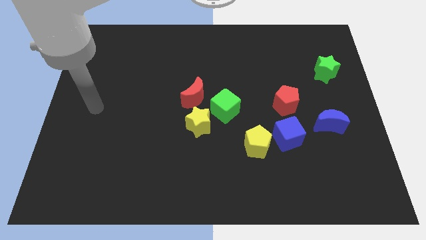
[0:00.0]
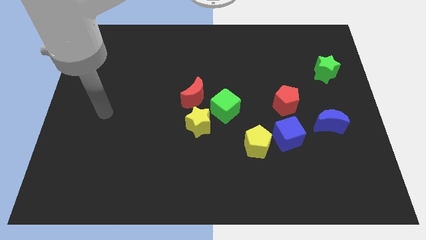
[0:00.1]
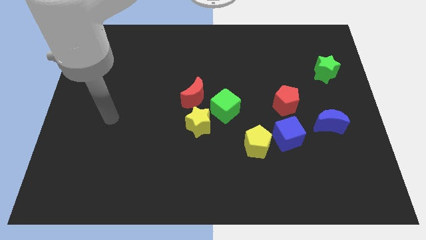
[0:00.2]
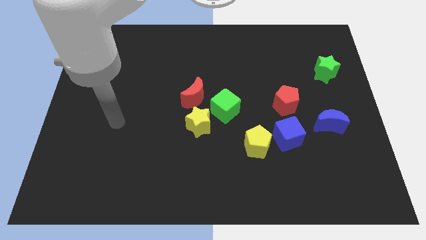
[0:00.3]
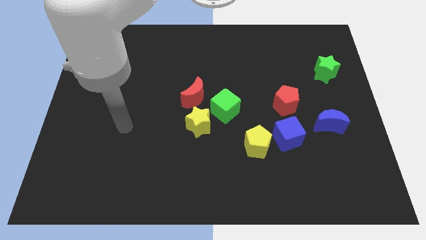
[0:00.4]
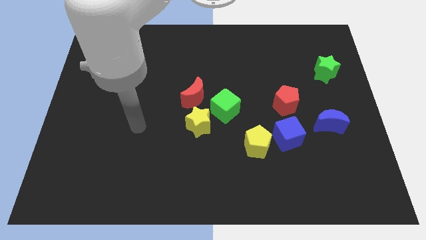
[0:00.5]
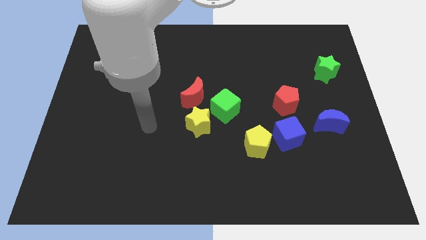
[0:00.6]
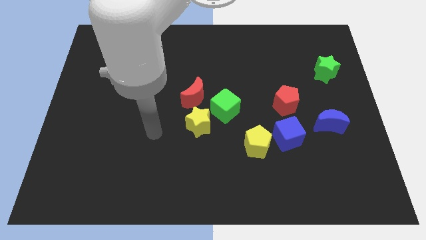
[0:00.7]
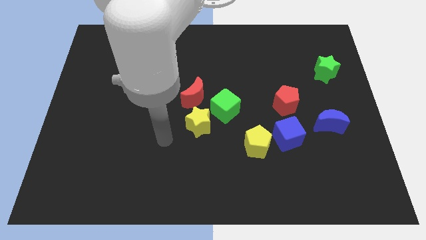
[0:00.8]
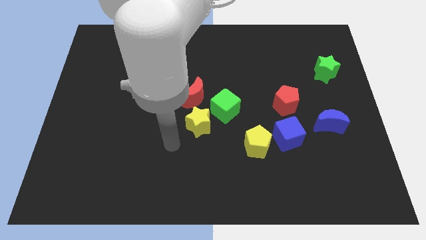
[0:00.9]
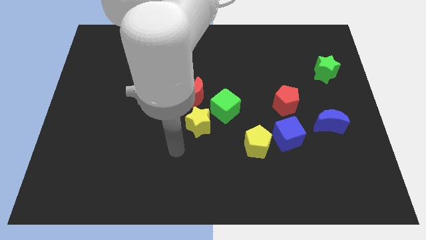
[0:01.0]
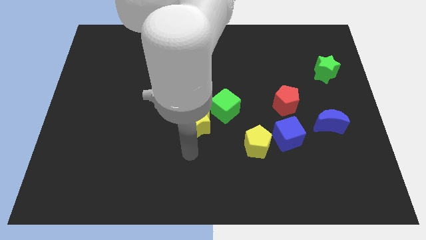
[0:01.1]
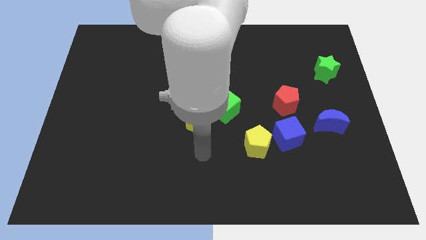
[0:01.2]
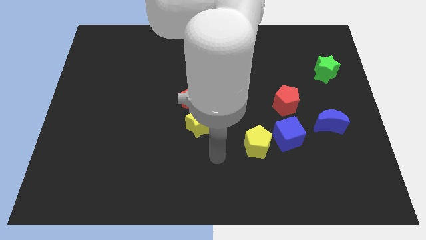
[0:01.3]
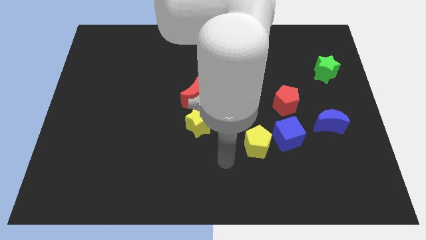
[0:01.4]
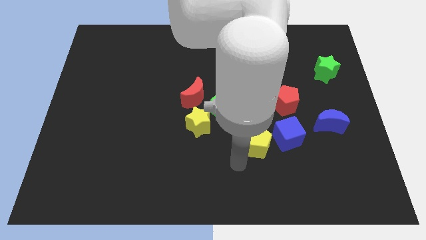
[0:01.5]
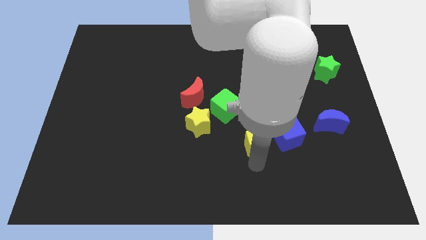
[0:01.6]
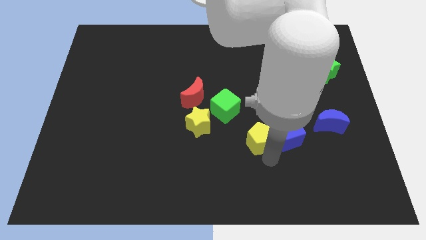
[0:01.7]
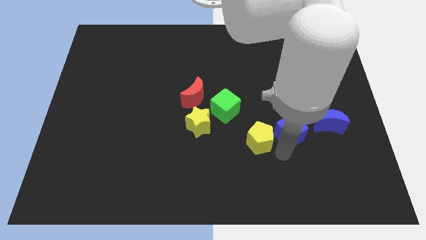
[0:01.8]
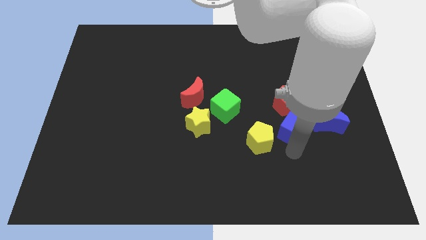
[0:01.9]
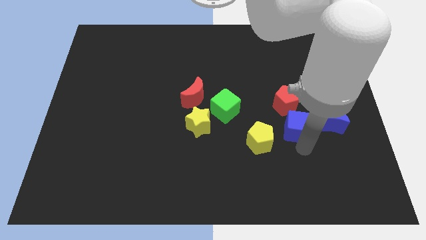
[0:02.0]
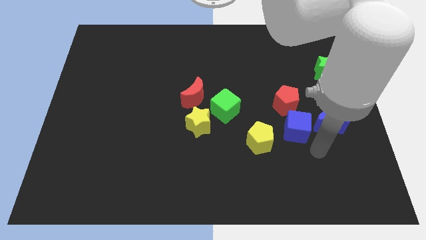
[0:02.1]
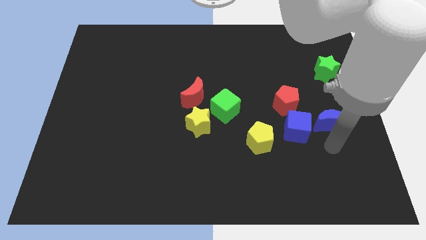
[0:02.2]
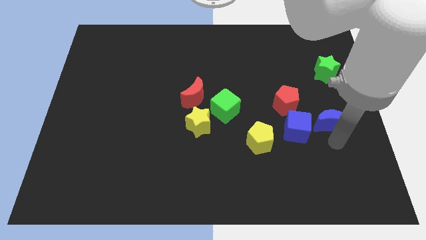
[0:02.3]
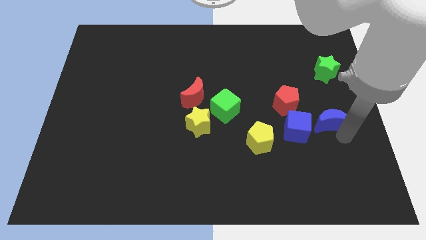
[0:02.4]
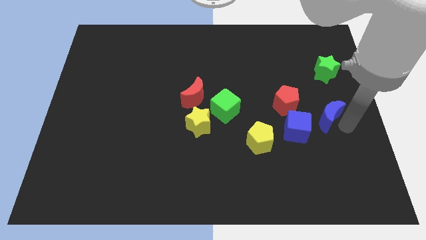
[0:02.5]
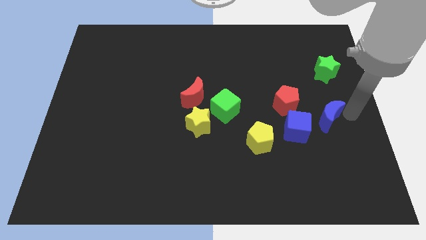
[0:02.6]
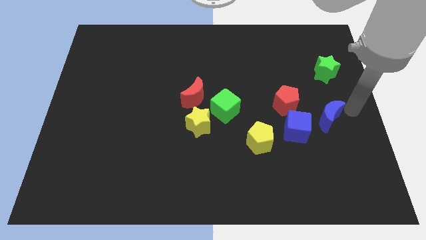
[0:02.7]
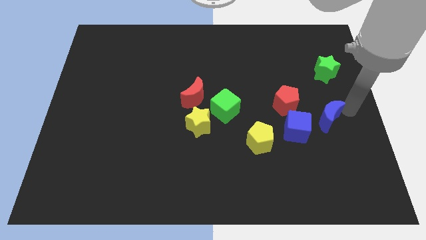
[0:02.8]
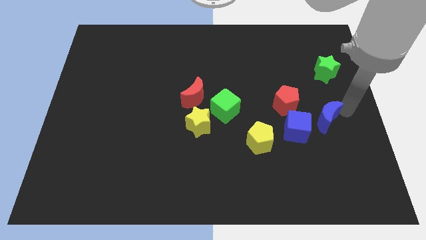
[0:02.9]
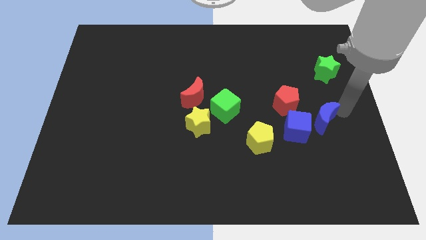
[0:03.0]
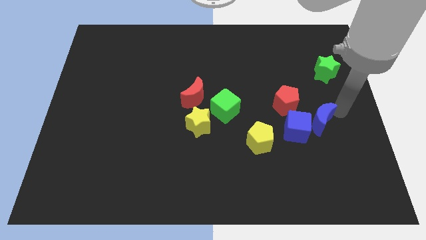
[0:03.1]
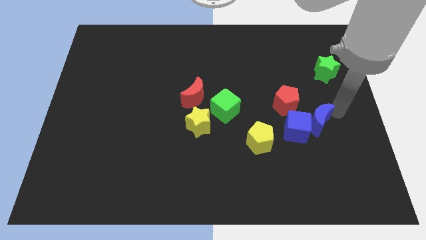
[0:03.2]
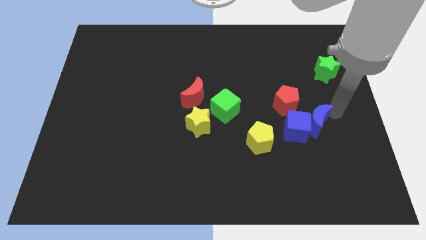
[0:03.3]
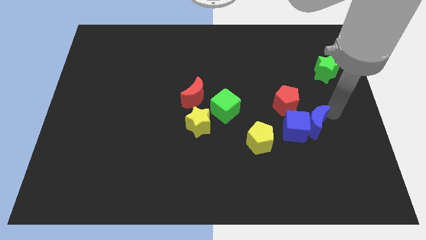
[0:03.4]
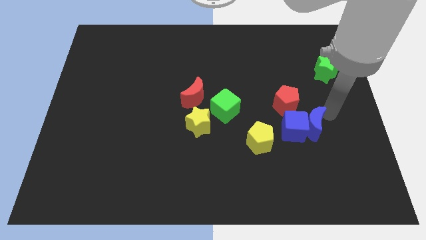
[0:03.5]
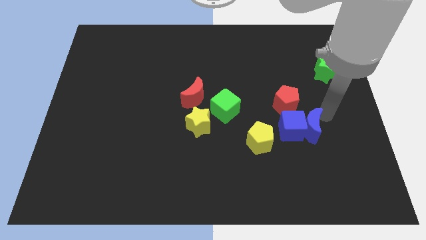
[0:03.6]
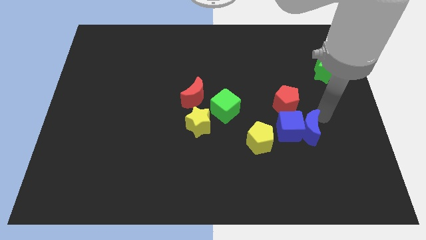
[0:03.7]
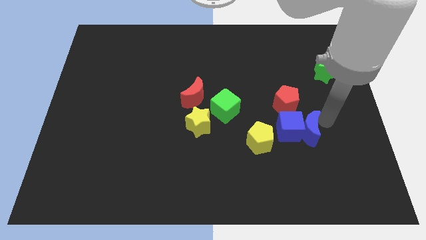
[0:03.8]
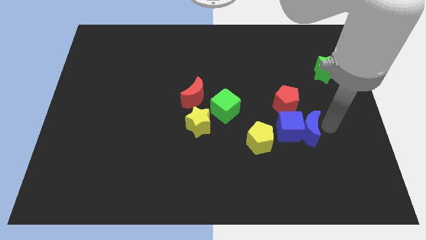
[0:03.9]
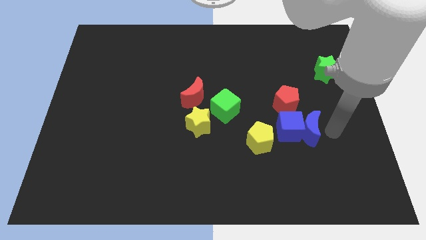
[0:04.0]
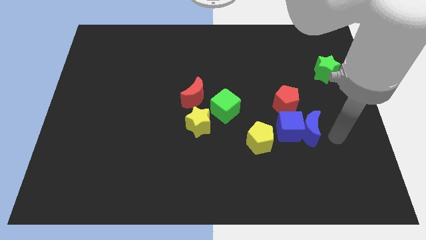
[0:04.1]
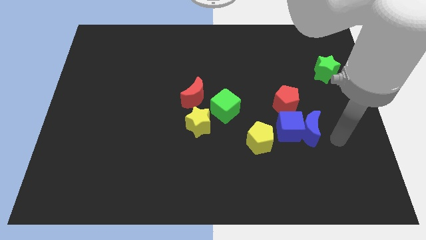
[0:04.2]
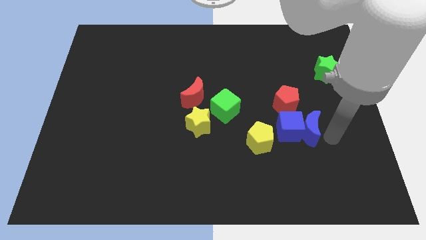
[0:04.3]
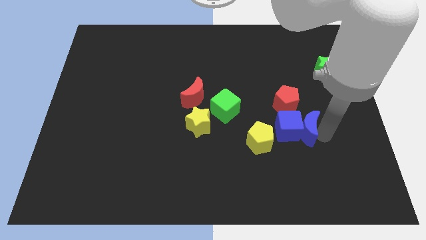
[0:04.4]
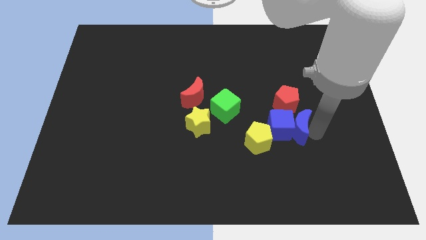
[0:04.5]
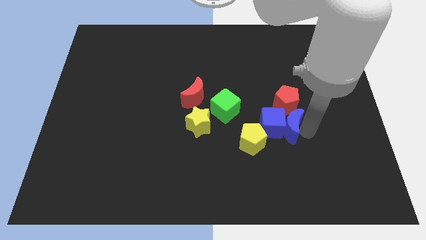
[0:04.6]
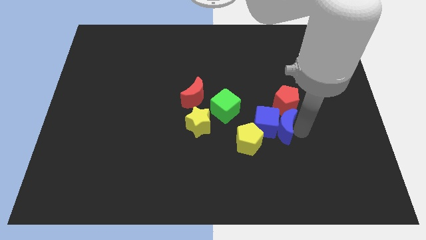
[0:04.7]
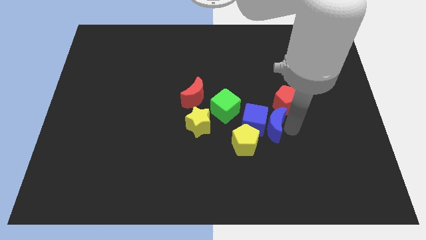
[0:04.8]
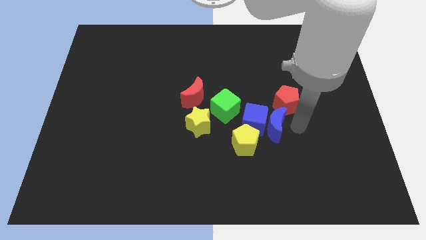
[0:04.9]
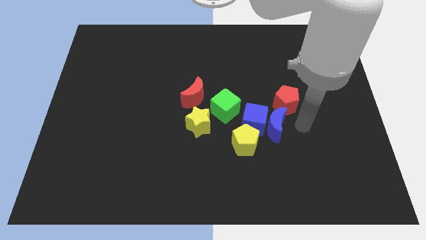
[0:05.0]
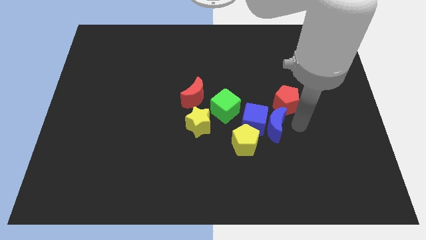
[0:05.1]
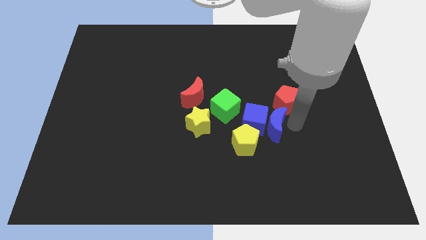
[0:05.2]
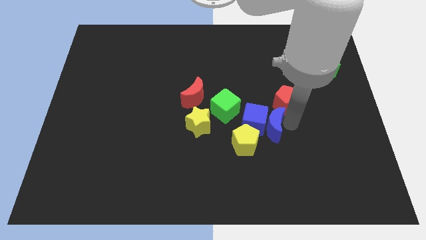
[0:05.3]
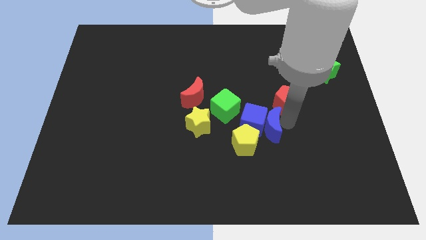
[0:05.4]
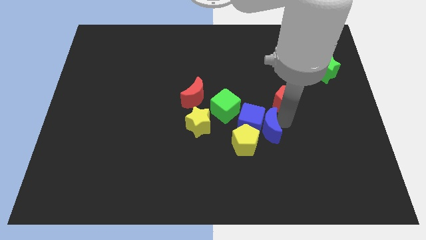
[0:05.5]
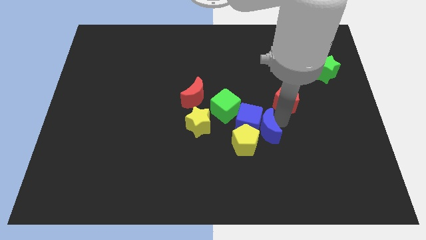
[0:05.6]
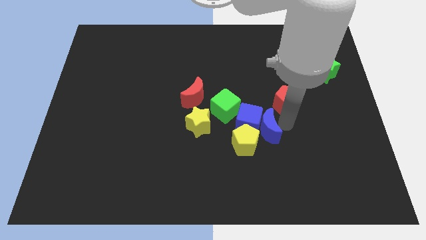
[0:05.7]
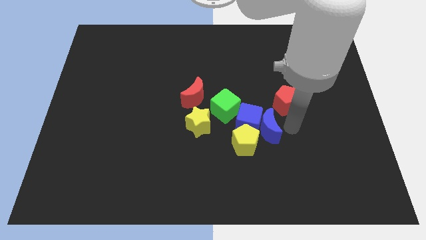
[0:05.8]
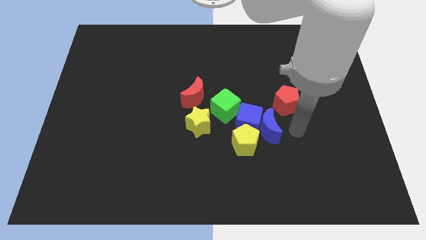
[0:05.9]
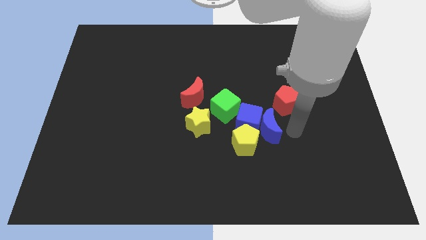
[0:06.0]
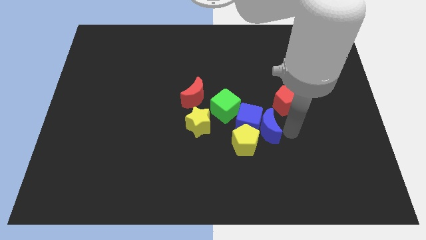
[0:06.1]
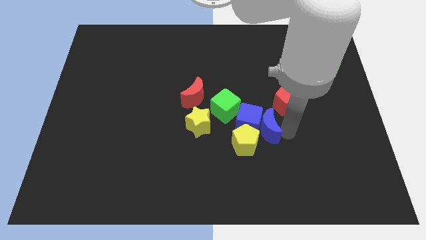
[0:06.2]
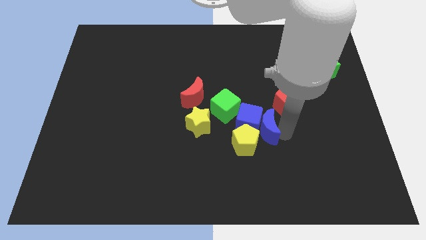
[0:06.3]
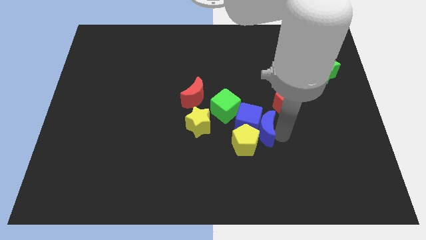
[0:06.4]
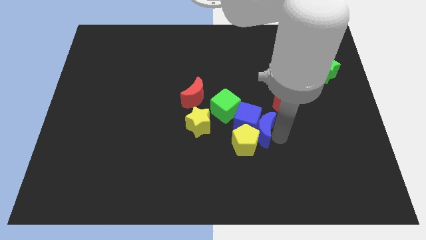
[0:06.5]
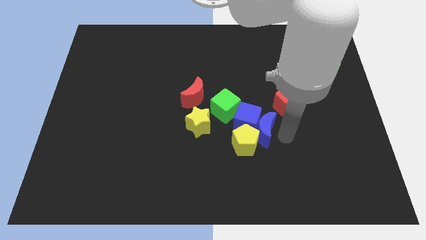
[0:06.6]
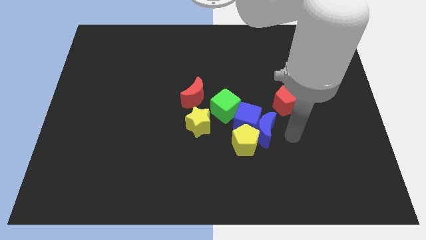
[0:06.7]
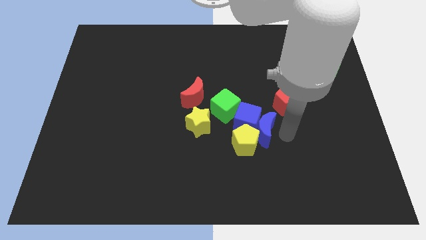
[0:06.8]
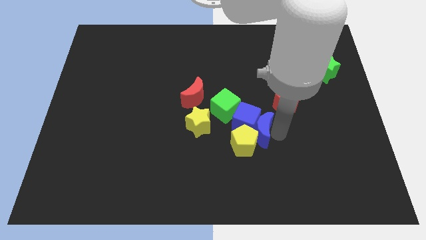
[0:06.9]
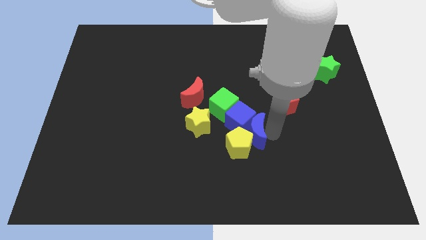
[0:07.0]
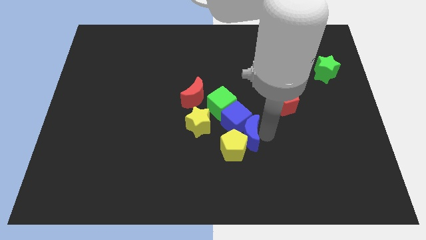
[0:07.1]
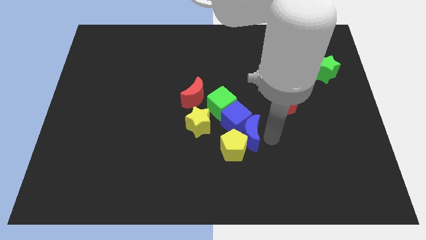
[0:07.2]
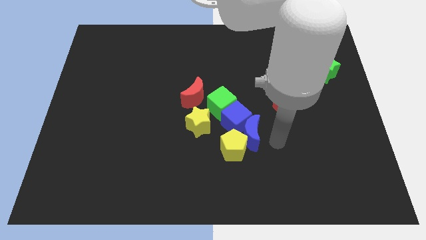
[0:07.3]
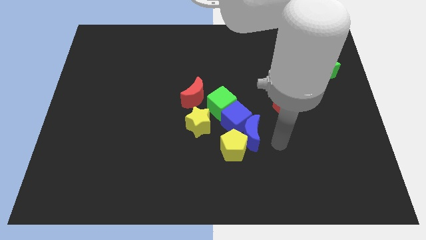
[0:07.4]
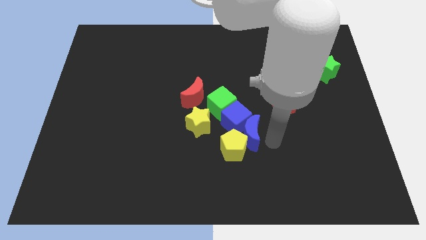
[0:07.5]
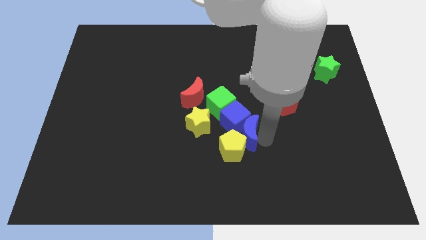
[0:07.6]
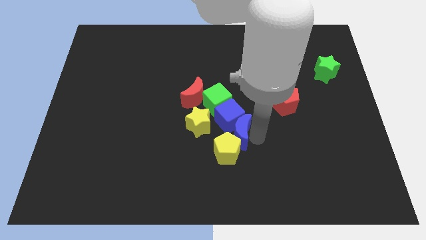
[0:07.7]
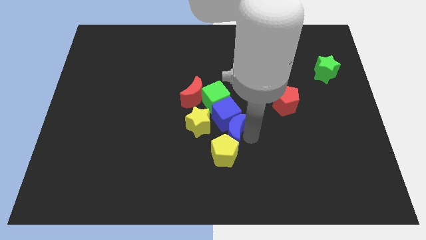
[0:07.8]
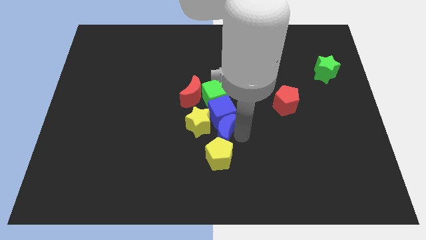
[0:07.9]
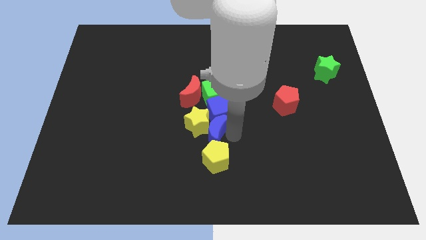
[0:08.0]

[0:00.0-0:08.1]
slide the blue moon close to the yellow star
